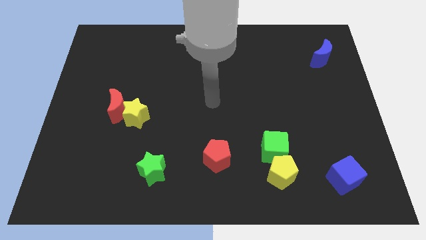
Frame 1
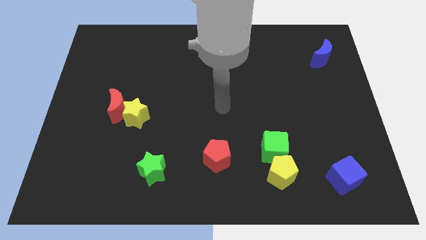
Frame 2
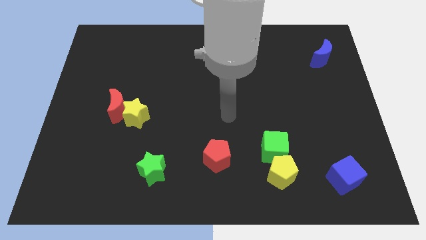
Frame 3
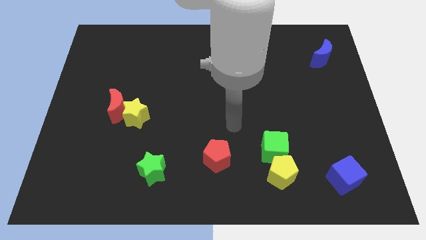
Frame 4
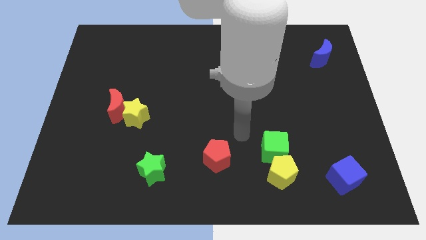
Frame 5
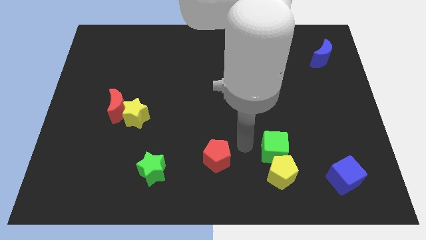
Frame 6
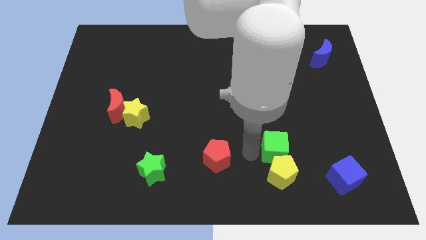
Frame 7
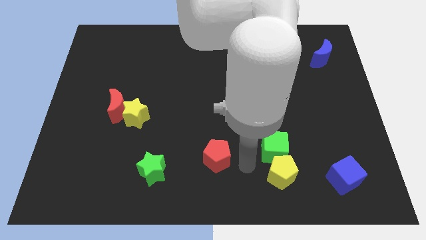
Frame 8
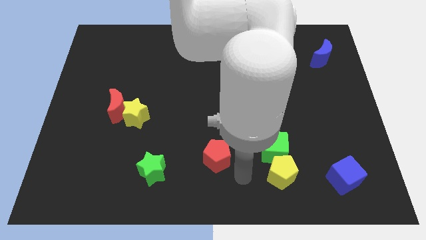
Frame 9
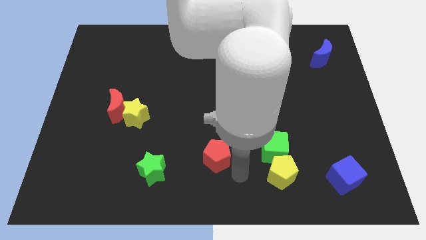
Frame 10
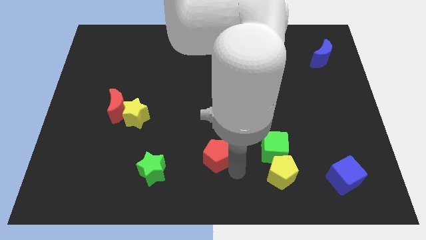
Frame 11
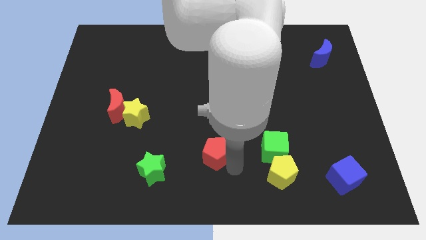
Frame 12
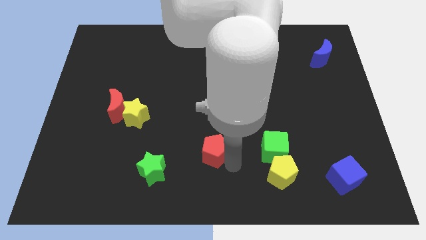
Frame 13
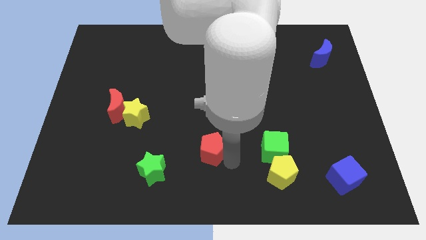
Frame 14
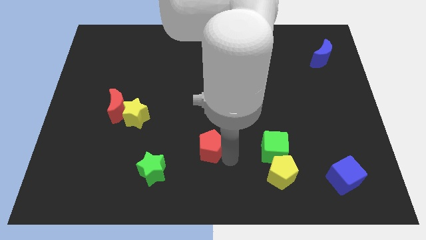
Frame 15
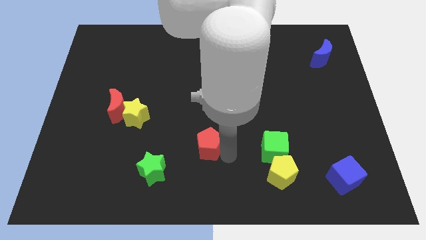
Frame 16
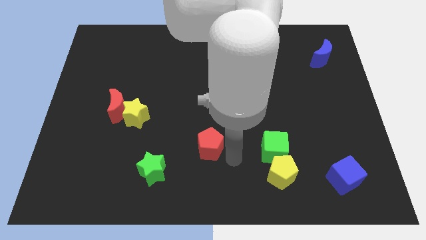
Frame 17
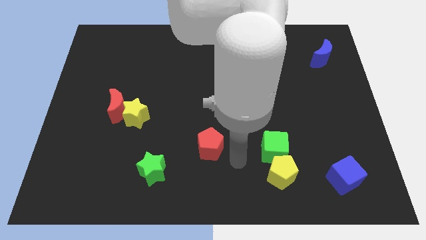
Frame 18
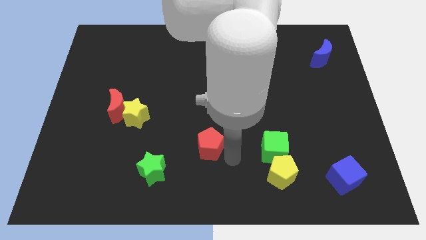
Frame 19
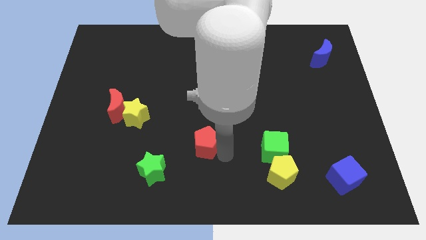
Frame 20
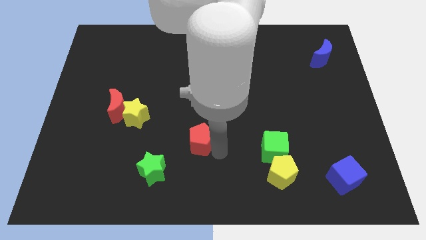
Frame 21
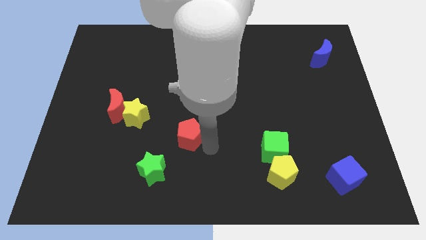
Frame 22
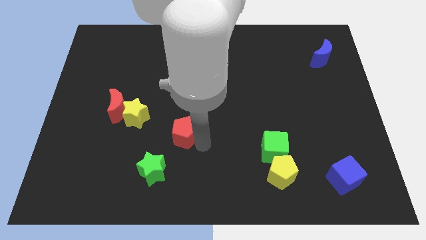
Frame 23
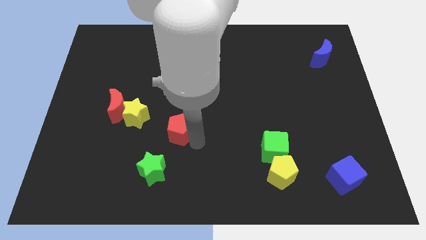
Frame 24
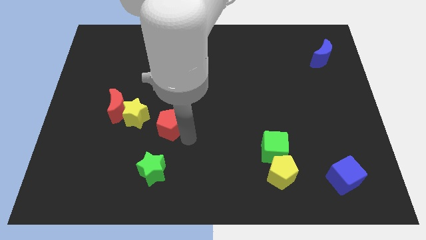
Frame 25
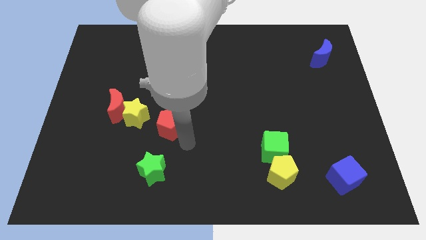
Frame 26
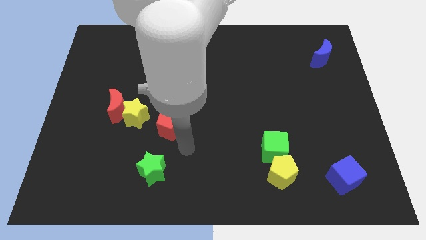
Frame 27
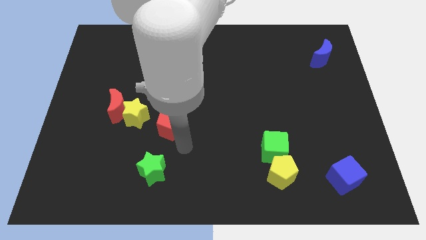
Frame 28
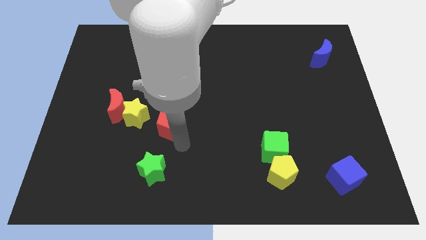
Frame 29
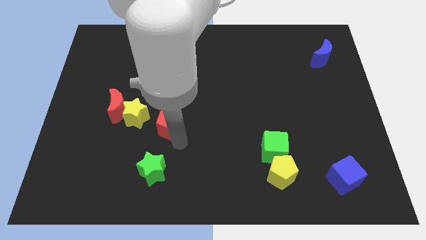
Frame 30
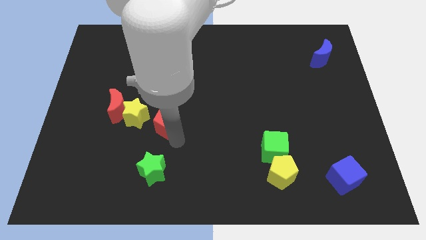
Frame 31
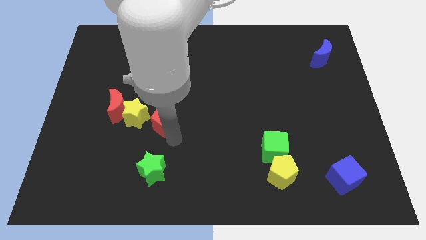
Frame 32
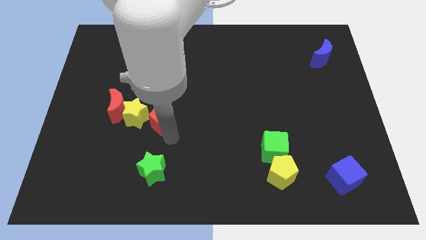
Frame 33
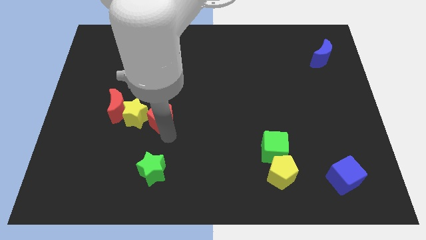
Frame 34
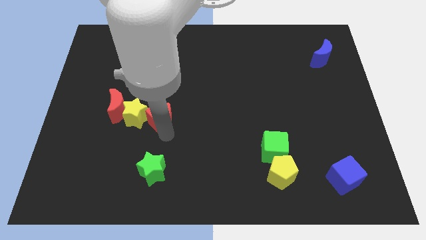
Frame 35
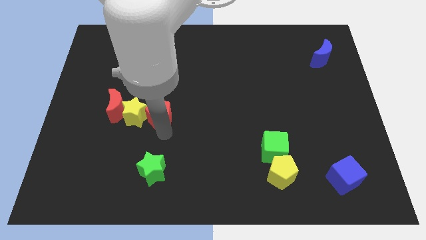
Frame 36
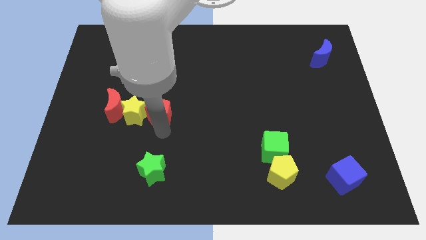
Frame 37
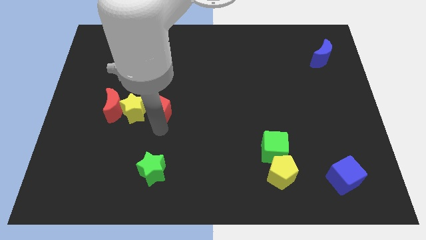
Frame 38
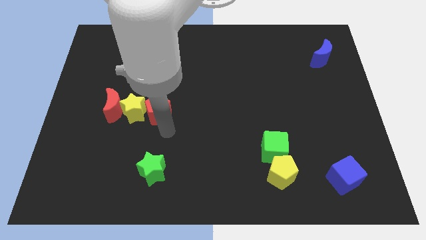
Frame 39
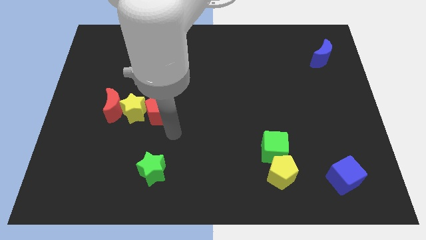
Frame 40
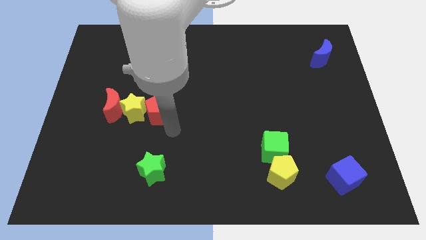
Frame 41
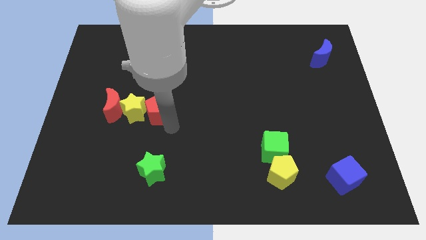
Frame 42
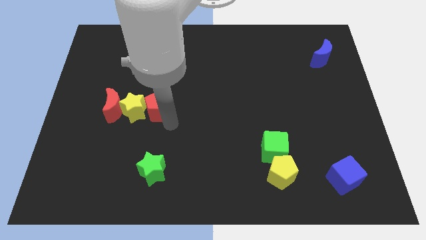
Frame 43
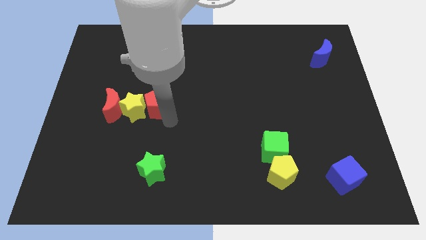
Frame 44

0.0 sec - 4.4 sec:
move the red pentagon up and left

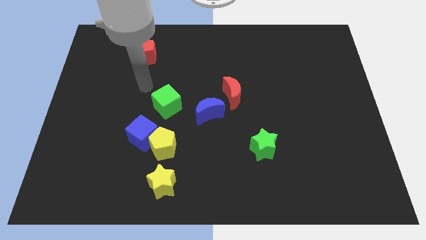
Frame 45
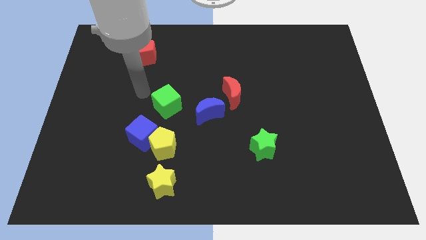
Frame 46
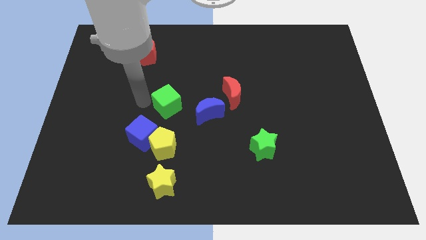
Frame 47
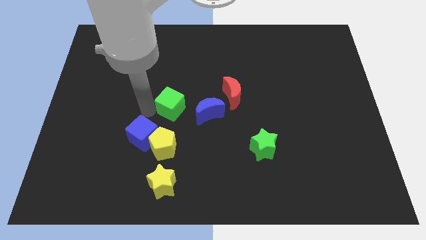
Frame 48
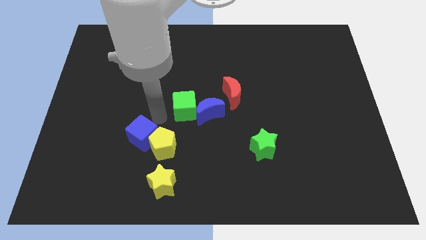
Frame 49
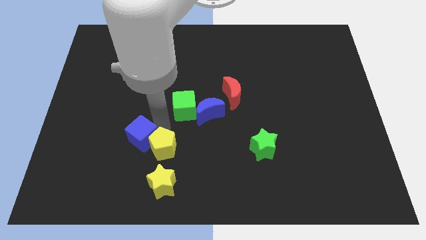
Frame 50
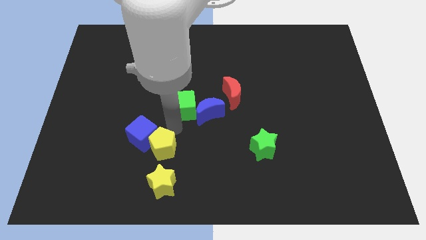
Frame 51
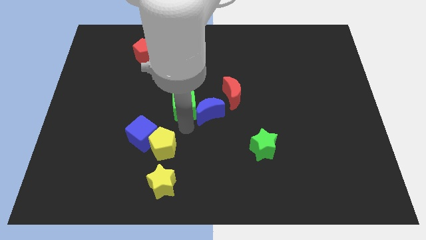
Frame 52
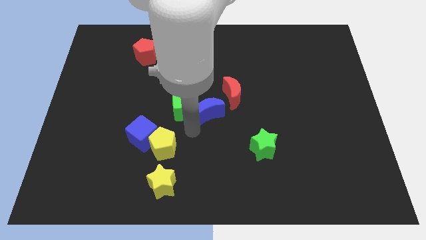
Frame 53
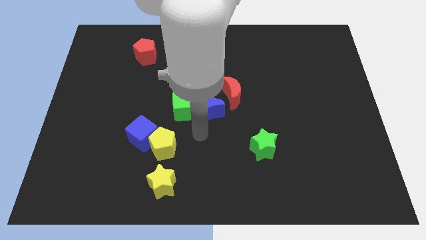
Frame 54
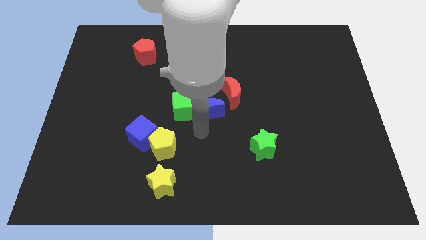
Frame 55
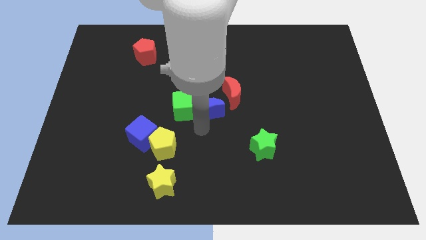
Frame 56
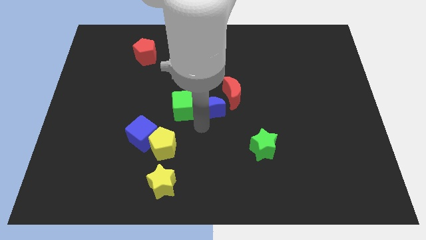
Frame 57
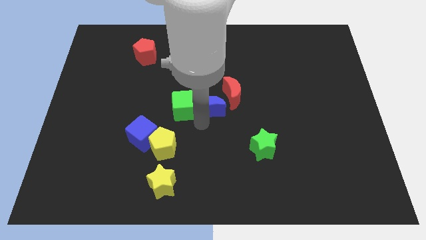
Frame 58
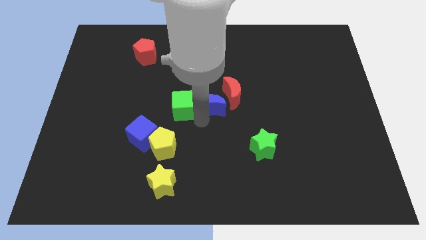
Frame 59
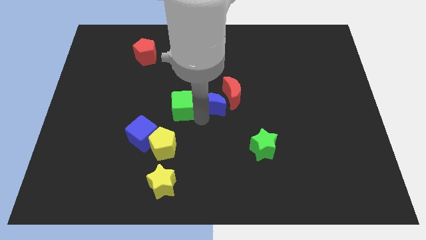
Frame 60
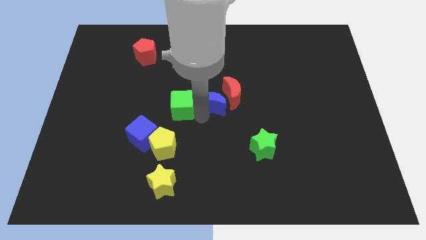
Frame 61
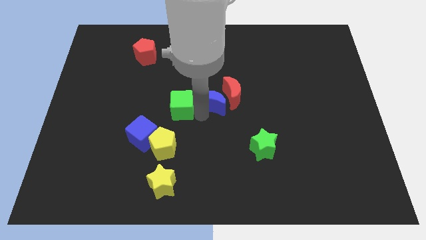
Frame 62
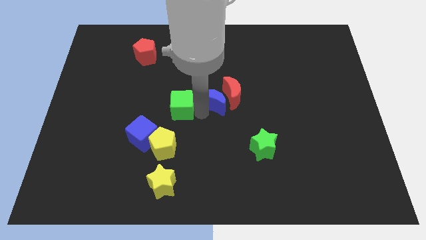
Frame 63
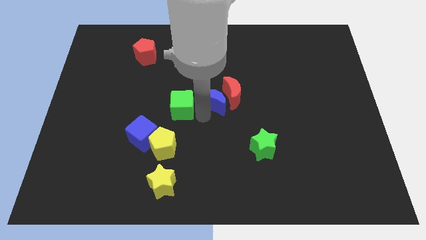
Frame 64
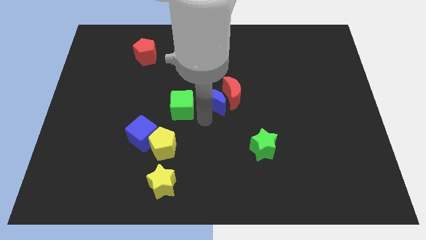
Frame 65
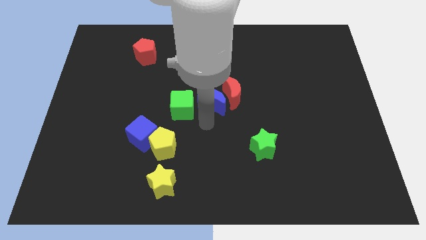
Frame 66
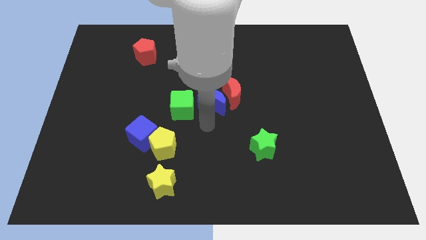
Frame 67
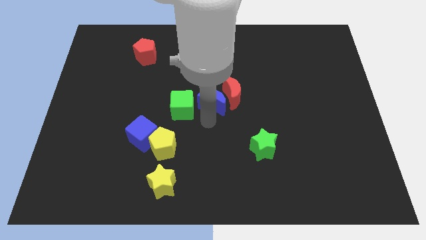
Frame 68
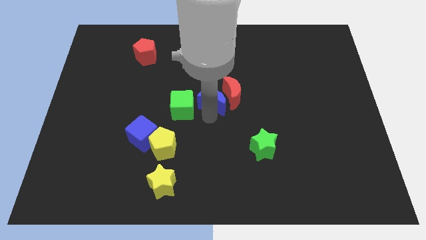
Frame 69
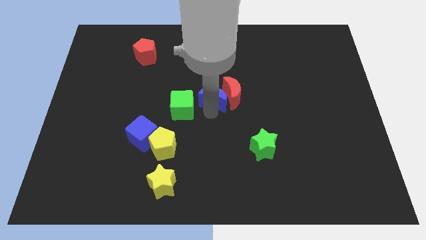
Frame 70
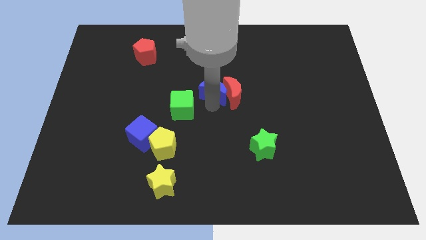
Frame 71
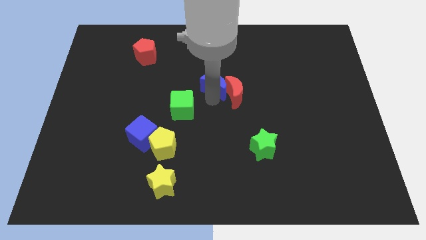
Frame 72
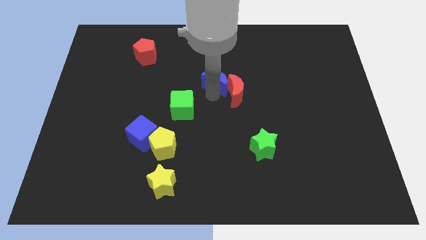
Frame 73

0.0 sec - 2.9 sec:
slightly move the blue moon upwards and then to the right

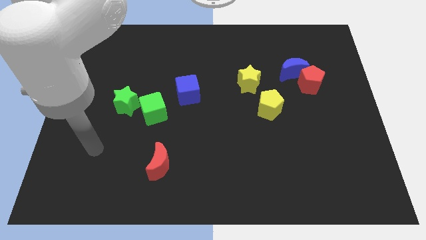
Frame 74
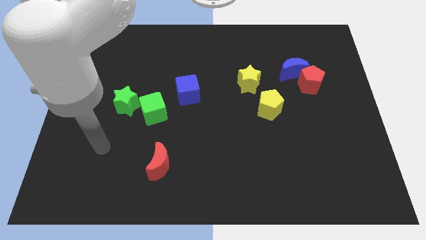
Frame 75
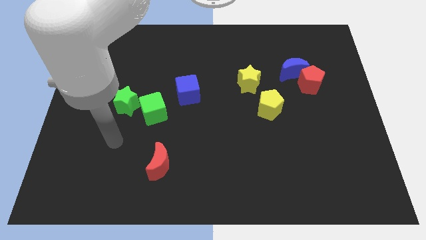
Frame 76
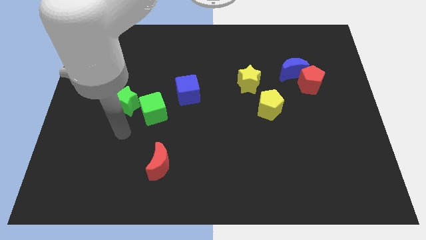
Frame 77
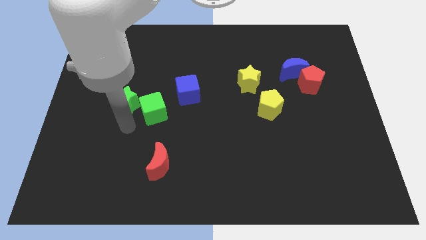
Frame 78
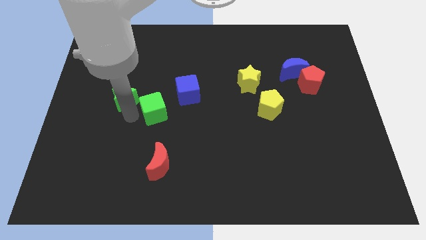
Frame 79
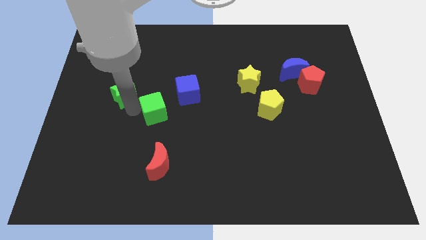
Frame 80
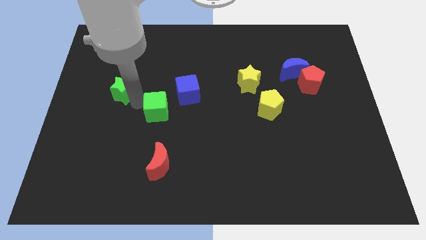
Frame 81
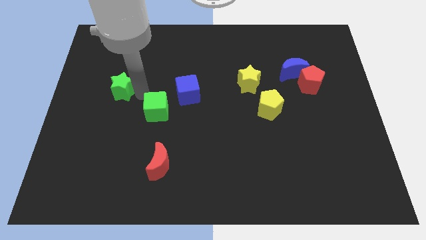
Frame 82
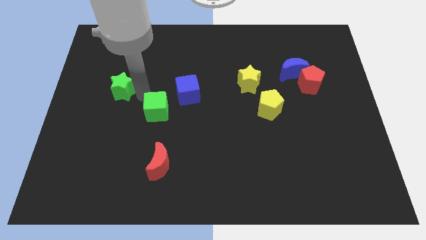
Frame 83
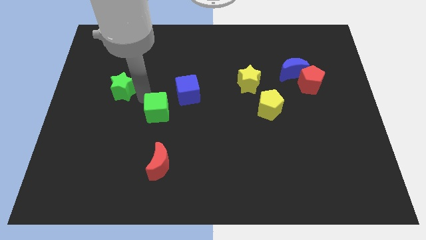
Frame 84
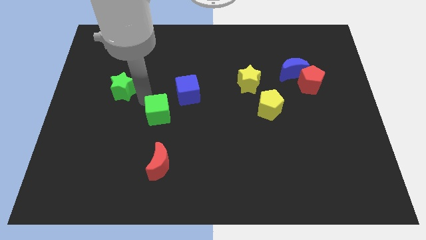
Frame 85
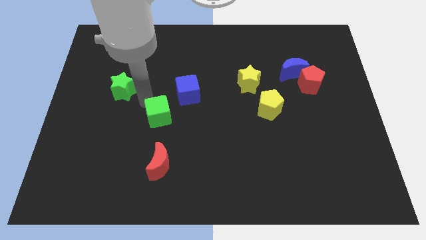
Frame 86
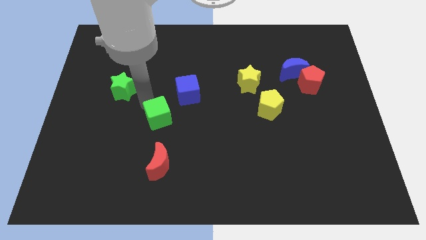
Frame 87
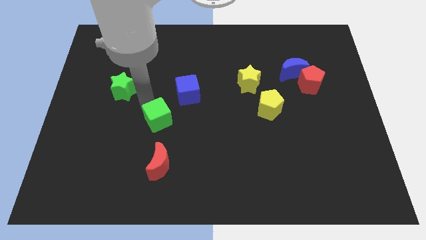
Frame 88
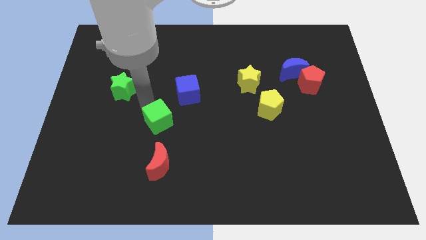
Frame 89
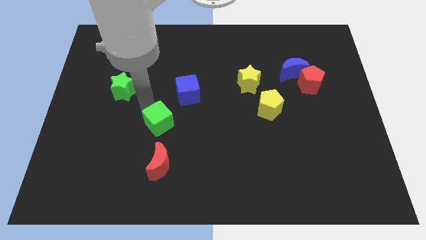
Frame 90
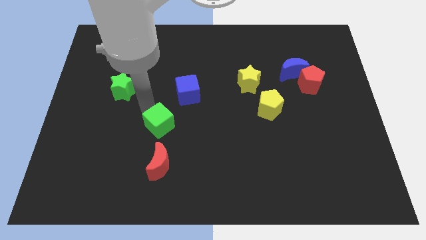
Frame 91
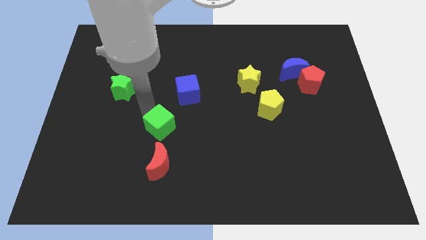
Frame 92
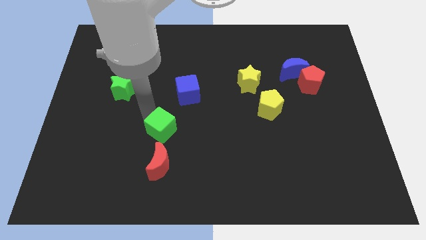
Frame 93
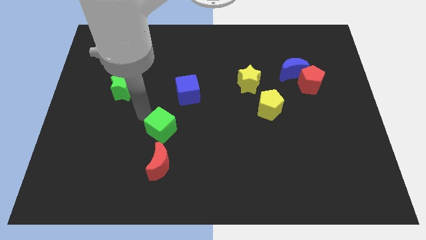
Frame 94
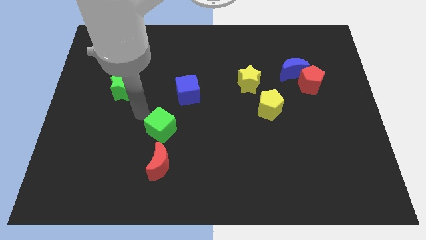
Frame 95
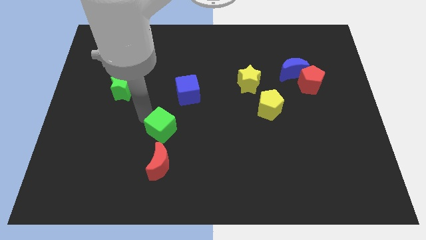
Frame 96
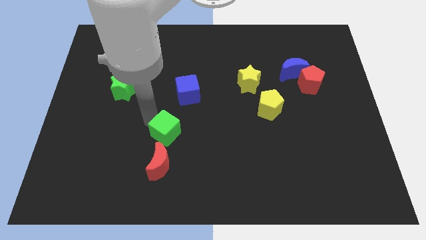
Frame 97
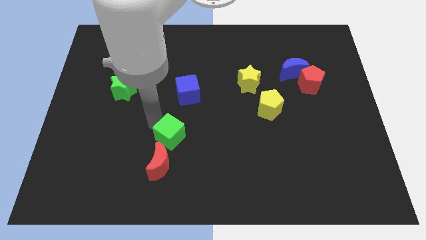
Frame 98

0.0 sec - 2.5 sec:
slightly push the green cube downwards and right
